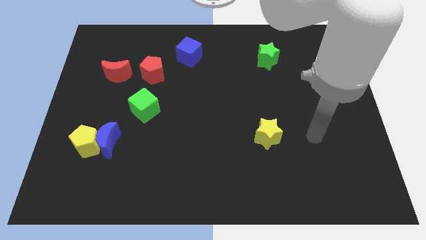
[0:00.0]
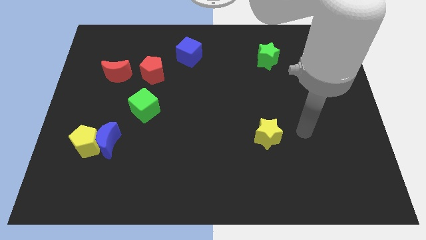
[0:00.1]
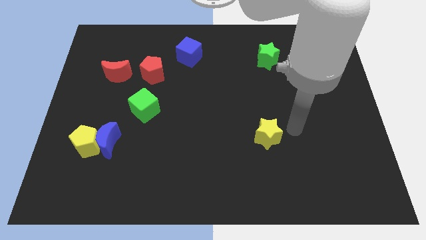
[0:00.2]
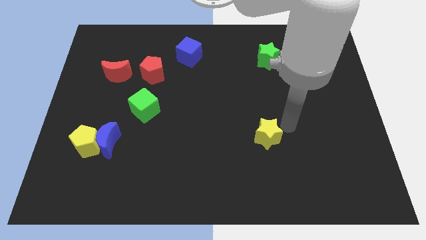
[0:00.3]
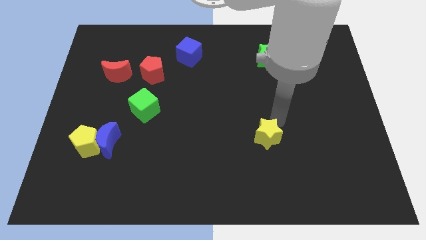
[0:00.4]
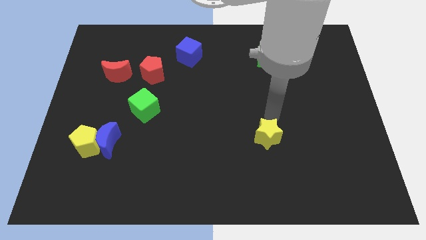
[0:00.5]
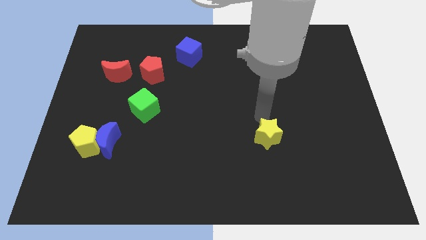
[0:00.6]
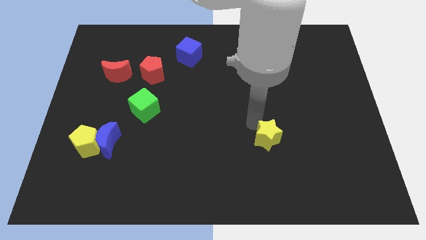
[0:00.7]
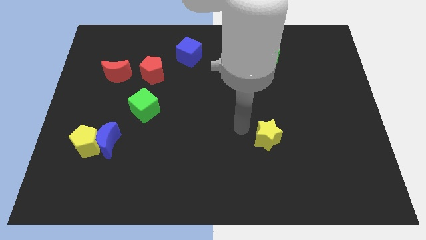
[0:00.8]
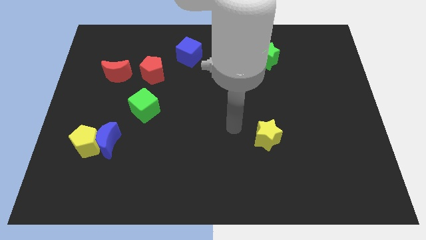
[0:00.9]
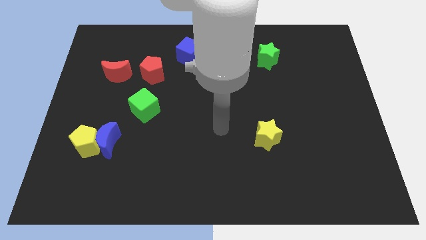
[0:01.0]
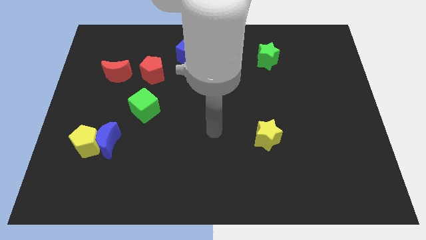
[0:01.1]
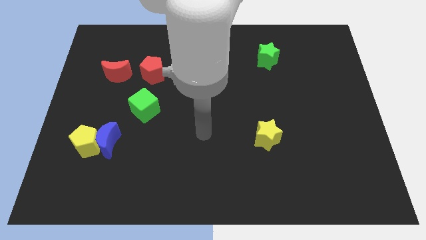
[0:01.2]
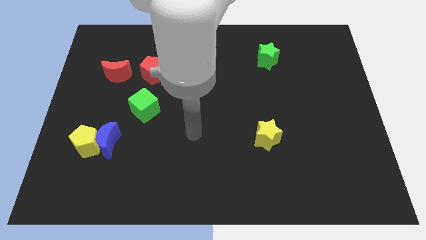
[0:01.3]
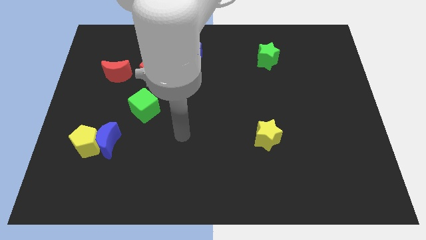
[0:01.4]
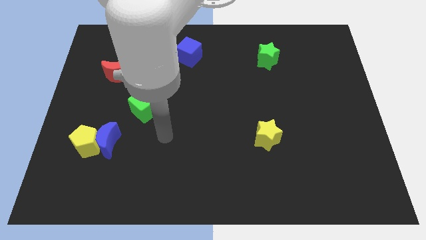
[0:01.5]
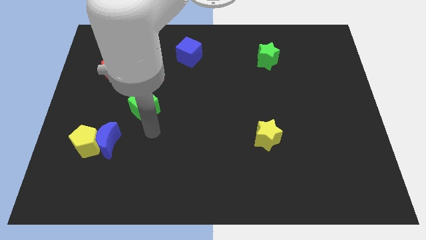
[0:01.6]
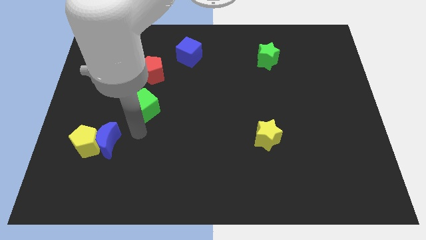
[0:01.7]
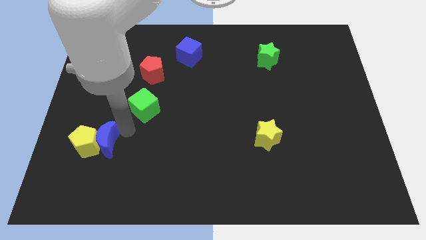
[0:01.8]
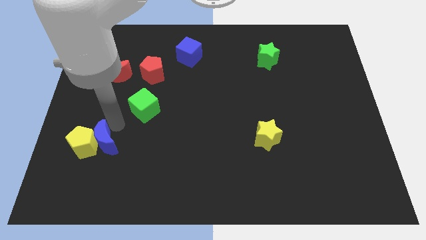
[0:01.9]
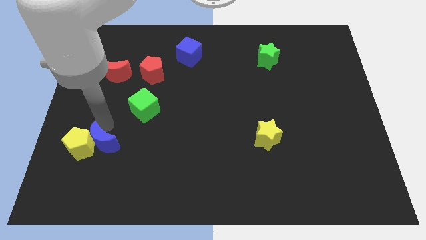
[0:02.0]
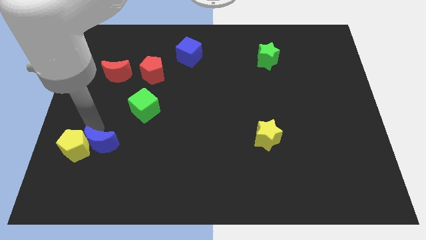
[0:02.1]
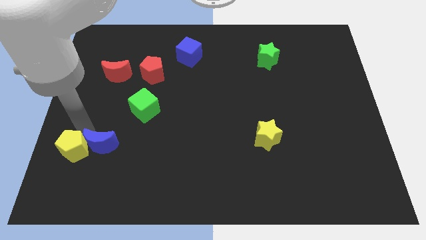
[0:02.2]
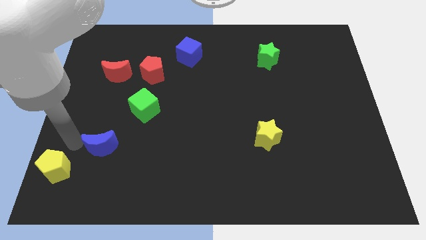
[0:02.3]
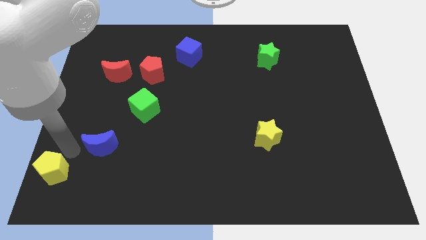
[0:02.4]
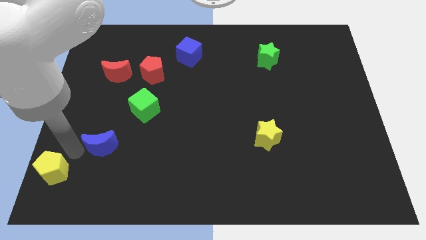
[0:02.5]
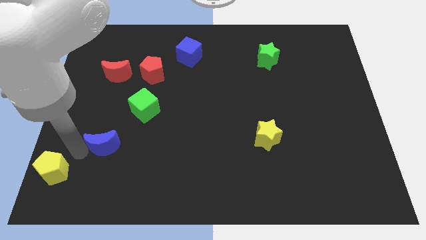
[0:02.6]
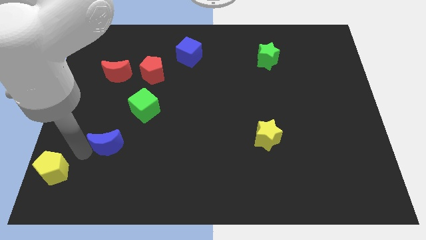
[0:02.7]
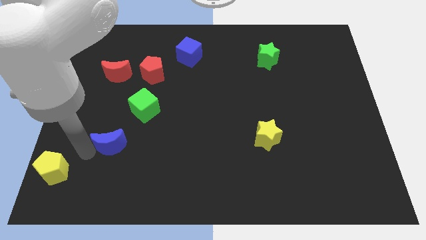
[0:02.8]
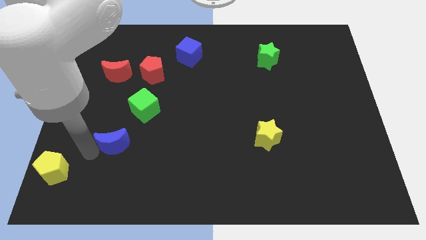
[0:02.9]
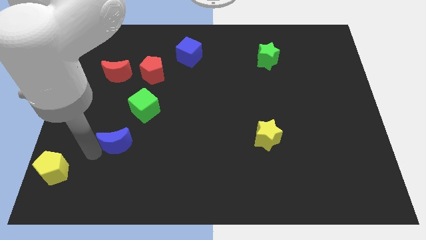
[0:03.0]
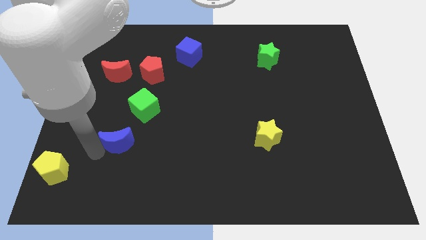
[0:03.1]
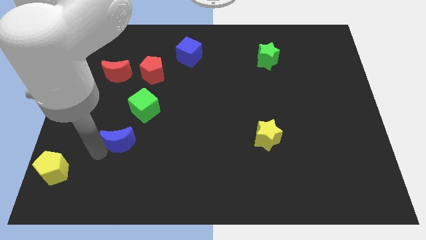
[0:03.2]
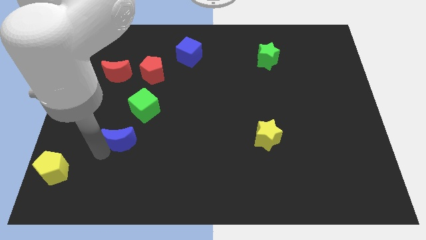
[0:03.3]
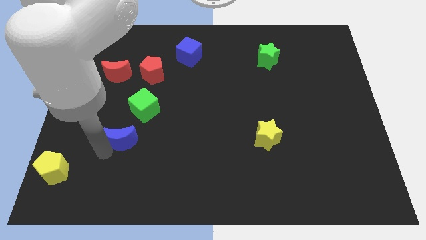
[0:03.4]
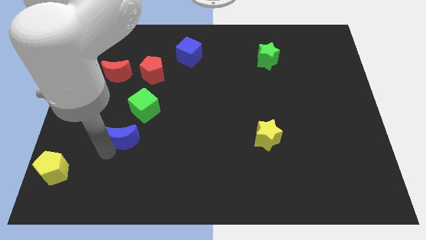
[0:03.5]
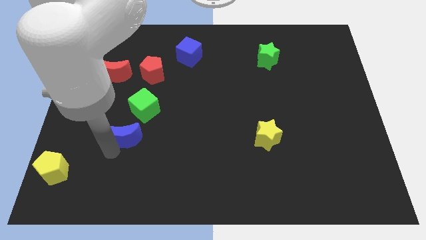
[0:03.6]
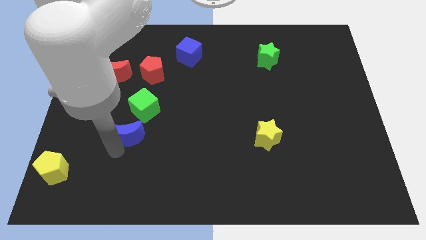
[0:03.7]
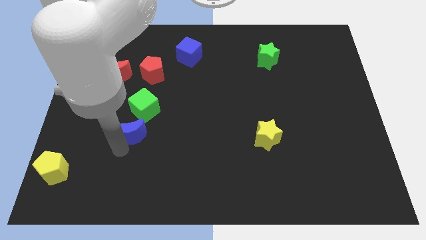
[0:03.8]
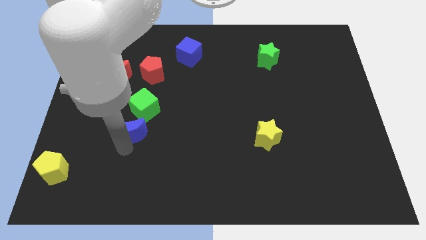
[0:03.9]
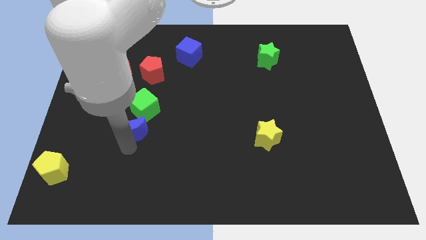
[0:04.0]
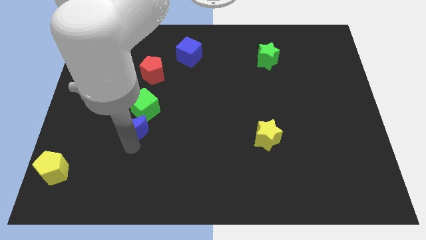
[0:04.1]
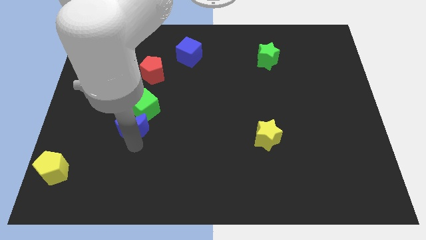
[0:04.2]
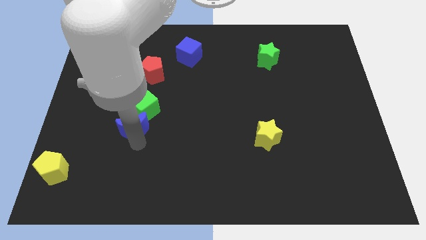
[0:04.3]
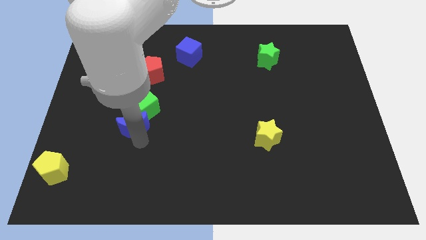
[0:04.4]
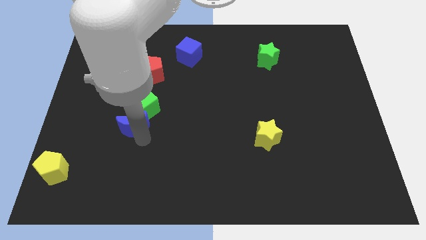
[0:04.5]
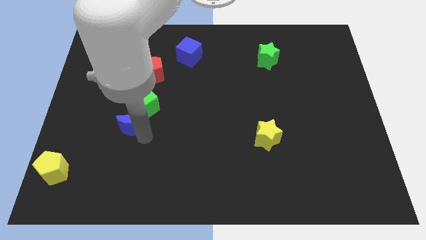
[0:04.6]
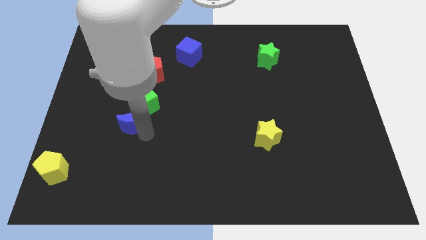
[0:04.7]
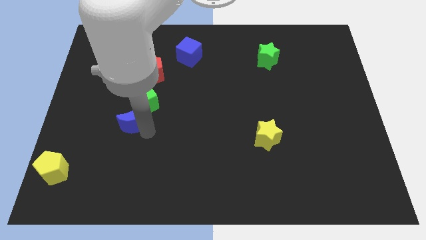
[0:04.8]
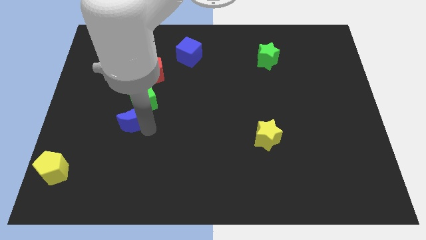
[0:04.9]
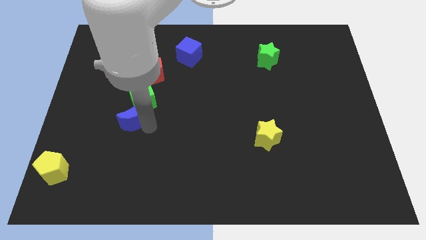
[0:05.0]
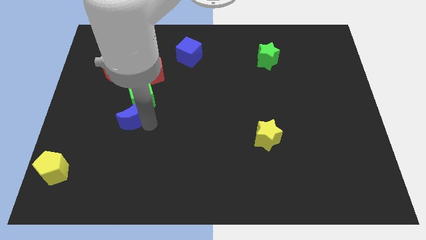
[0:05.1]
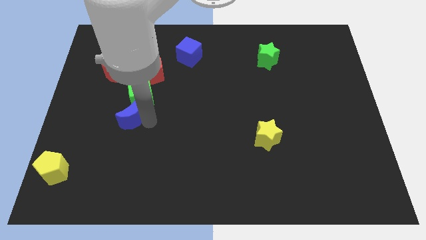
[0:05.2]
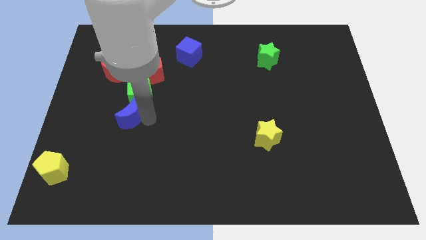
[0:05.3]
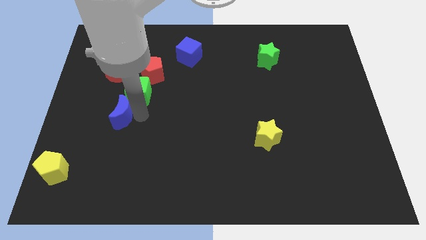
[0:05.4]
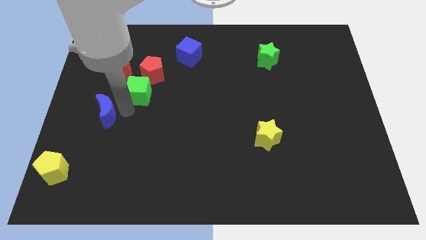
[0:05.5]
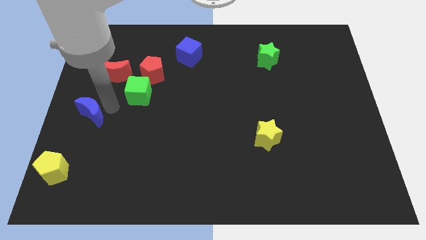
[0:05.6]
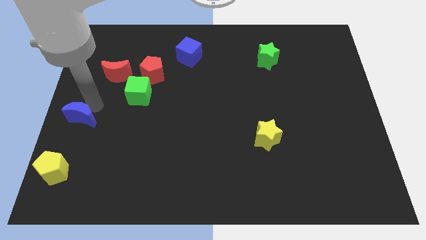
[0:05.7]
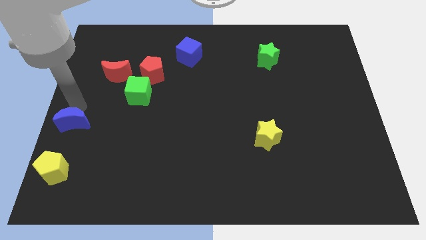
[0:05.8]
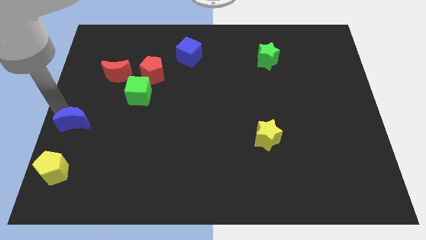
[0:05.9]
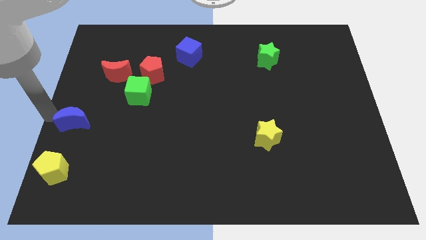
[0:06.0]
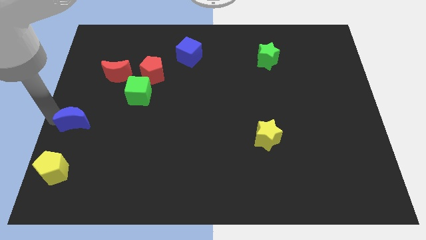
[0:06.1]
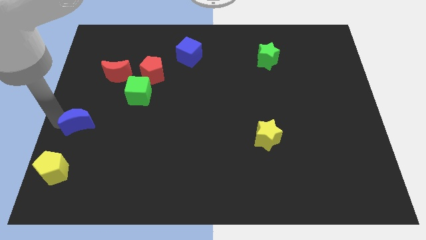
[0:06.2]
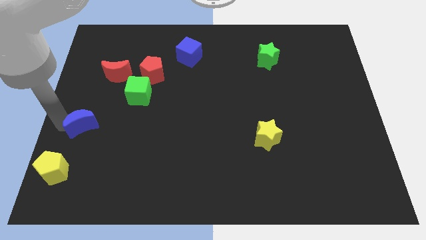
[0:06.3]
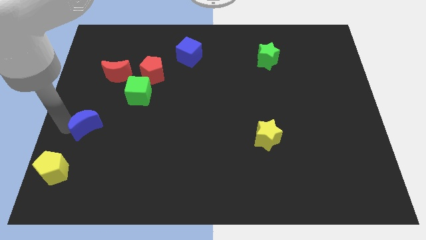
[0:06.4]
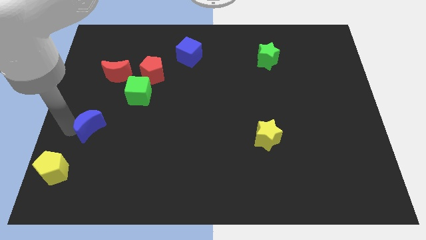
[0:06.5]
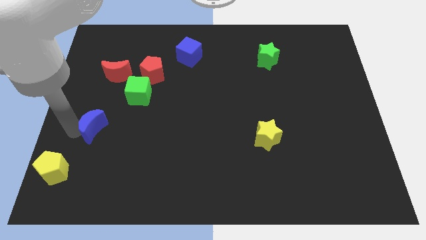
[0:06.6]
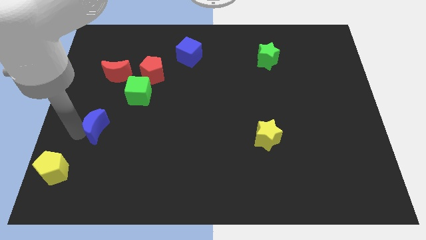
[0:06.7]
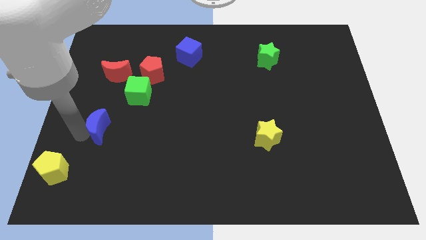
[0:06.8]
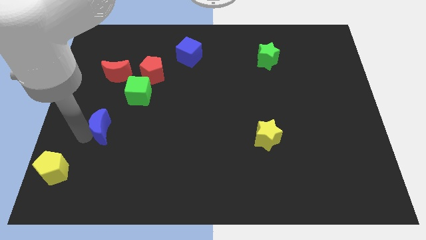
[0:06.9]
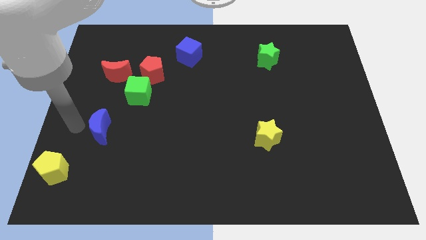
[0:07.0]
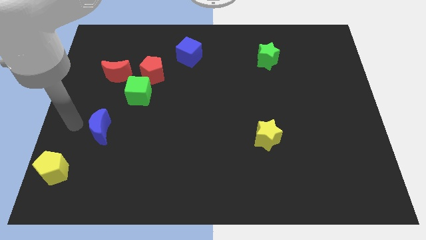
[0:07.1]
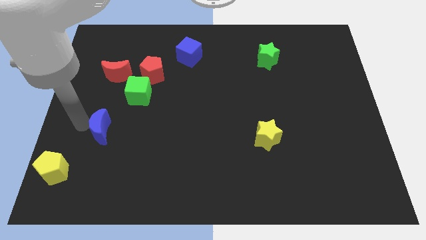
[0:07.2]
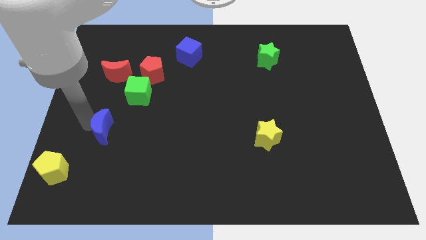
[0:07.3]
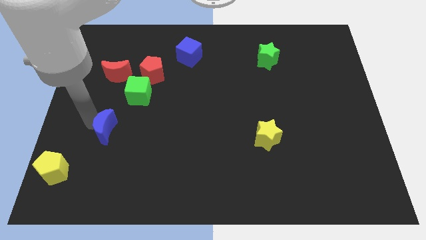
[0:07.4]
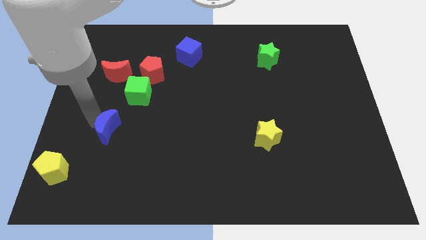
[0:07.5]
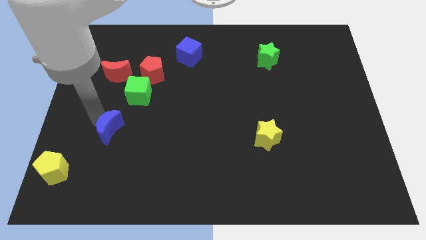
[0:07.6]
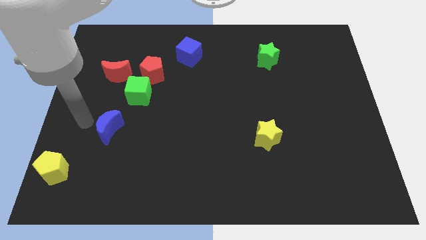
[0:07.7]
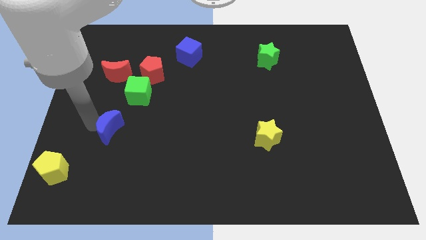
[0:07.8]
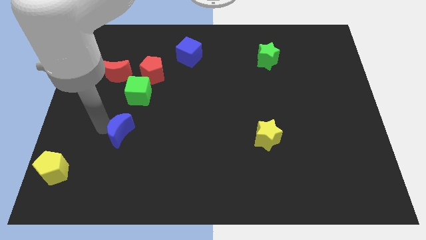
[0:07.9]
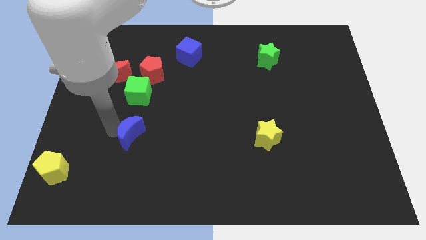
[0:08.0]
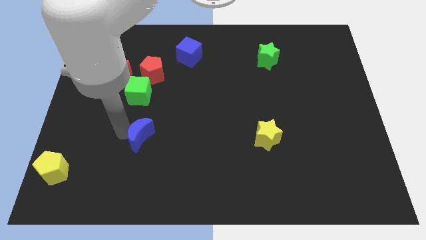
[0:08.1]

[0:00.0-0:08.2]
push the blue moon right a little bit
